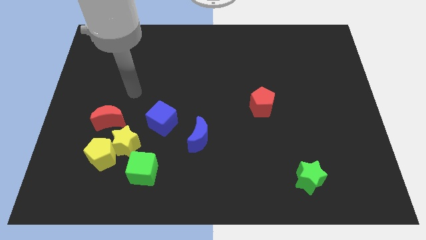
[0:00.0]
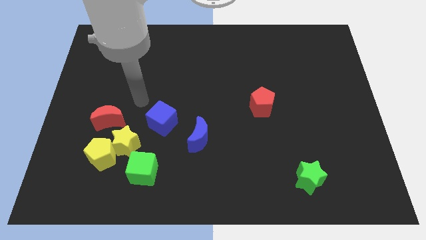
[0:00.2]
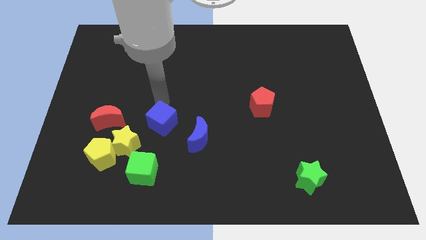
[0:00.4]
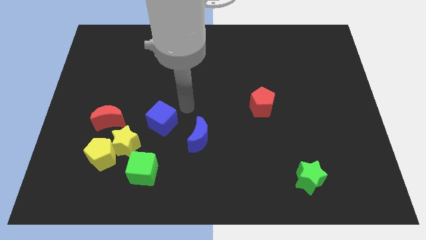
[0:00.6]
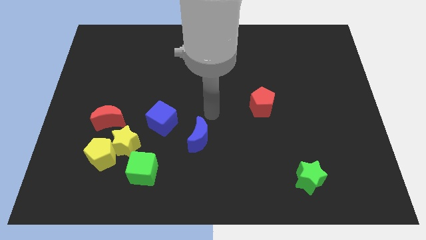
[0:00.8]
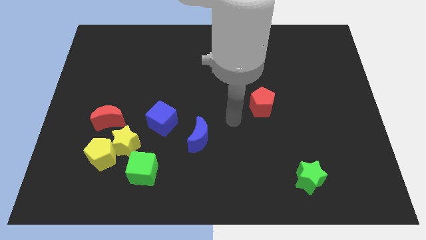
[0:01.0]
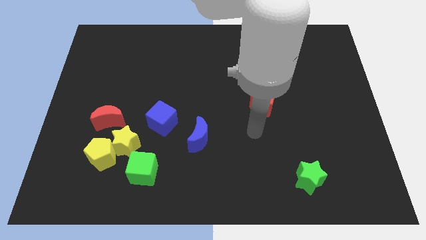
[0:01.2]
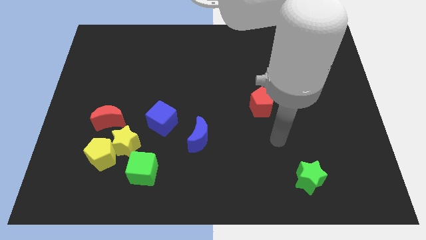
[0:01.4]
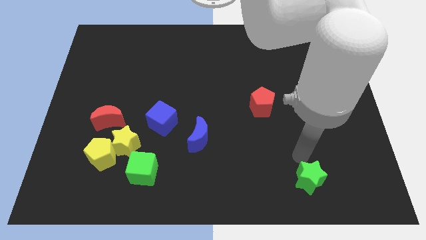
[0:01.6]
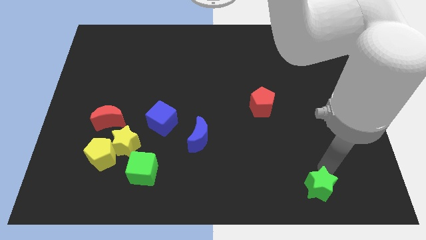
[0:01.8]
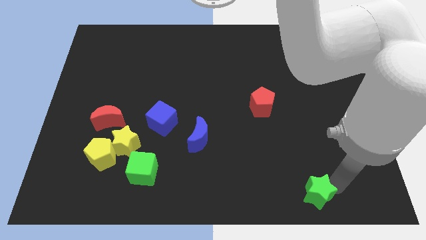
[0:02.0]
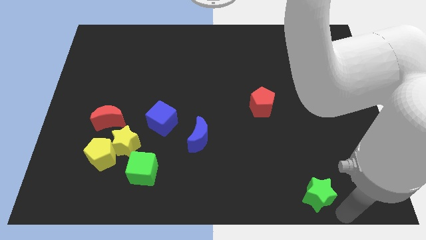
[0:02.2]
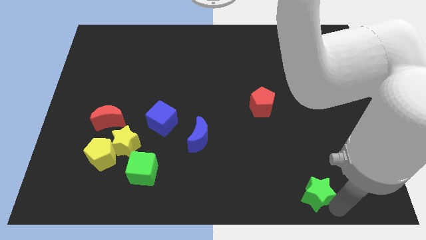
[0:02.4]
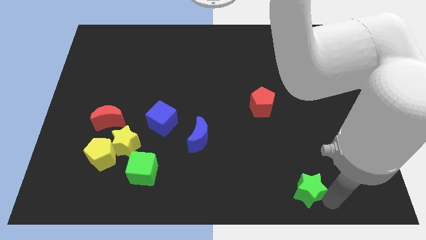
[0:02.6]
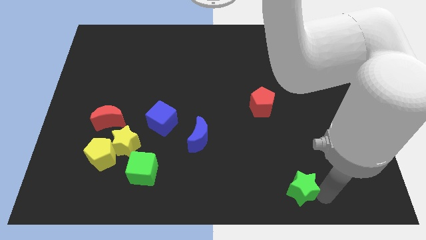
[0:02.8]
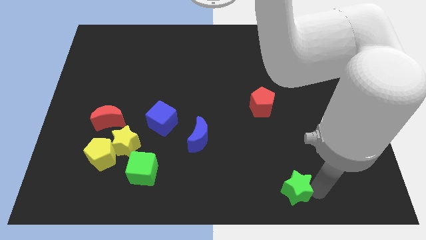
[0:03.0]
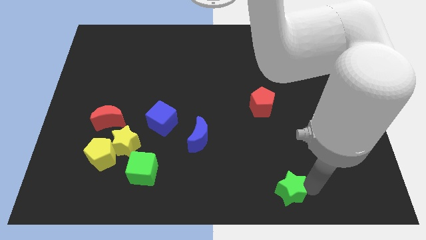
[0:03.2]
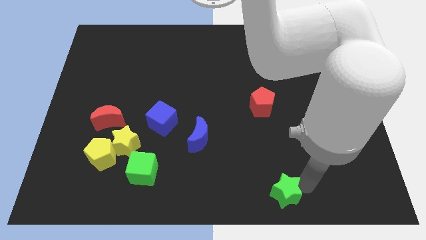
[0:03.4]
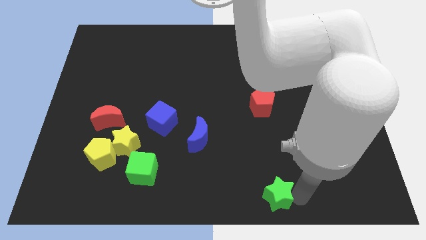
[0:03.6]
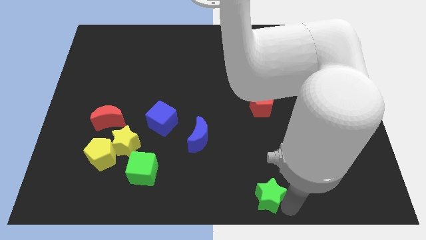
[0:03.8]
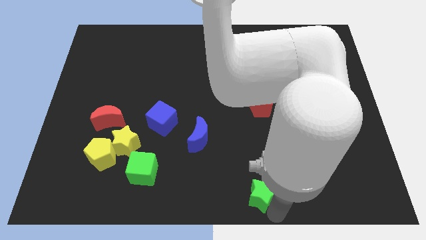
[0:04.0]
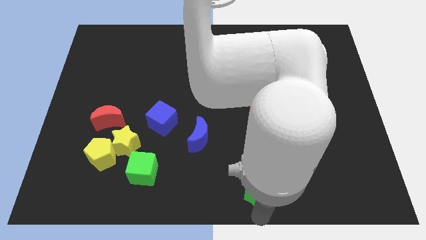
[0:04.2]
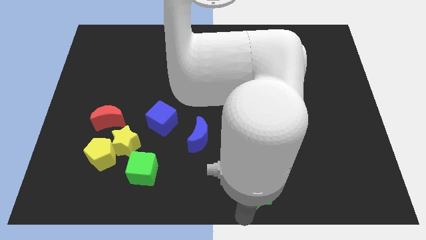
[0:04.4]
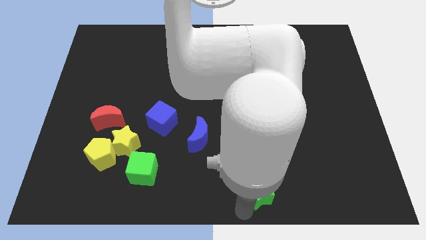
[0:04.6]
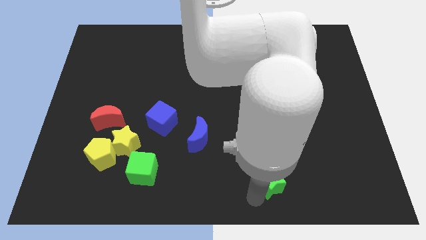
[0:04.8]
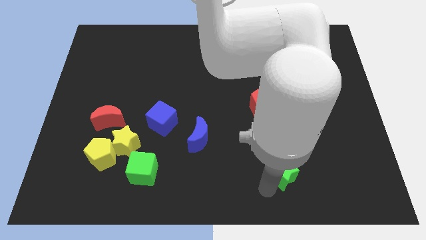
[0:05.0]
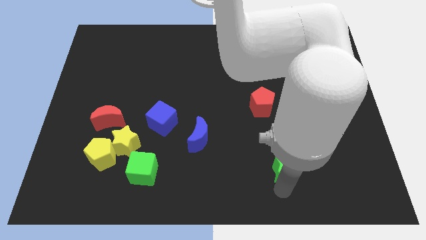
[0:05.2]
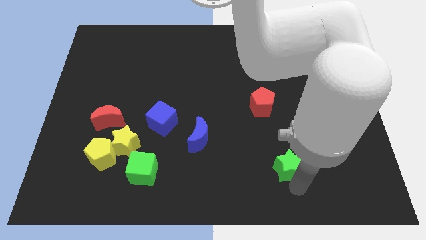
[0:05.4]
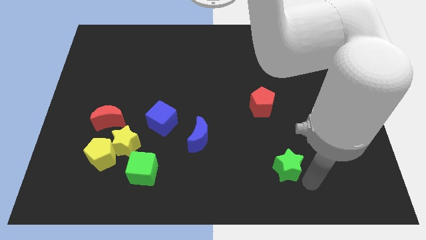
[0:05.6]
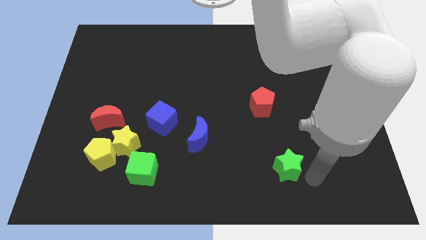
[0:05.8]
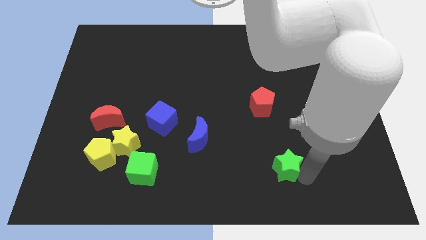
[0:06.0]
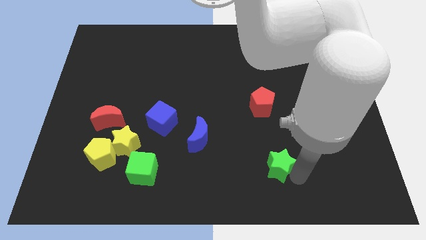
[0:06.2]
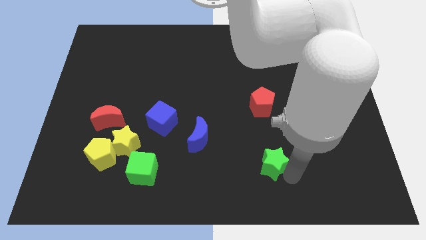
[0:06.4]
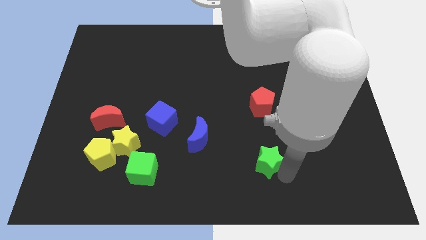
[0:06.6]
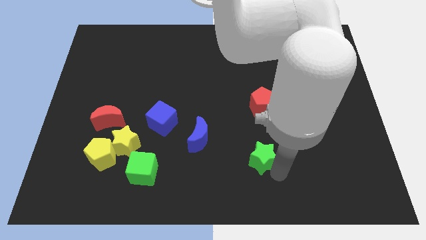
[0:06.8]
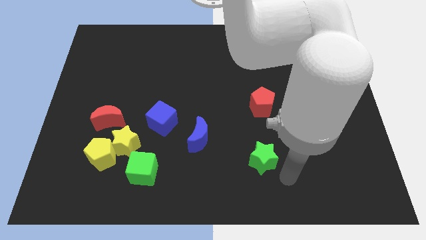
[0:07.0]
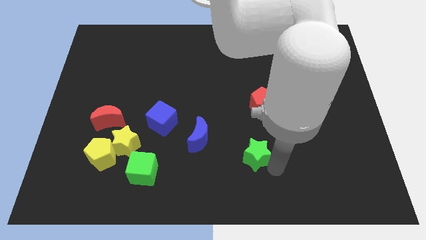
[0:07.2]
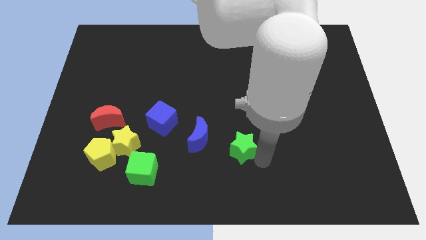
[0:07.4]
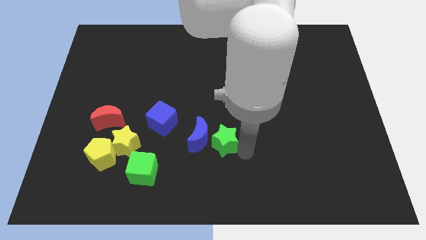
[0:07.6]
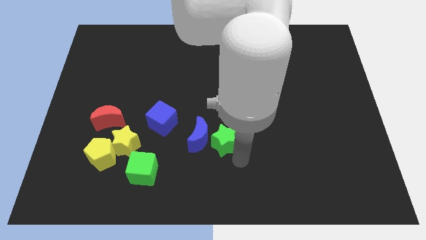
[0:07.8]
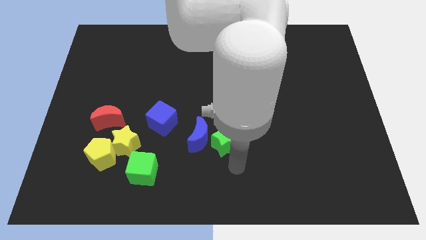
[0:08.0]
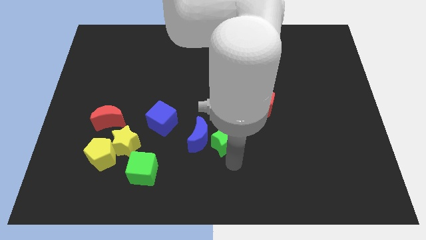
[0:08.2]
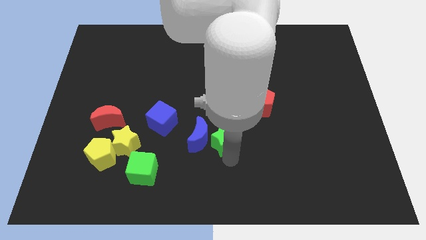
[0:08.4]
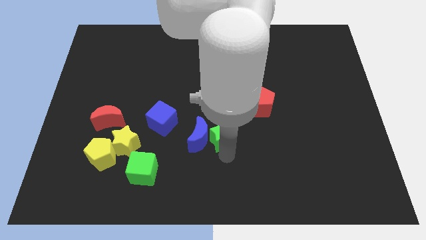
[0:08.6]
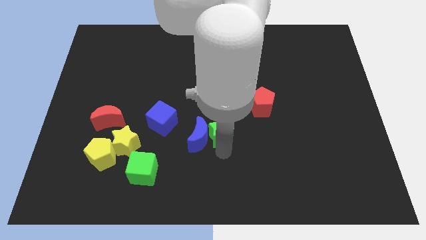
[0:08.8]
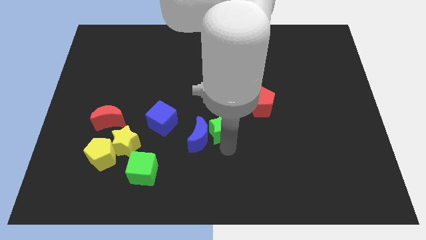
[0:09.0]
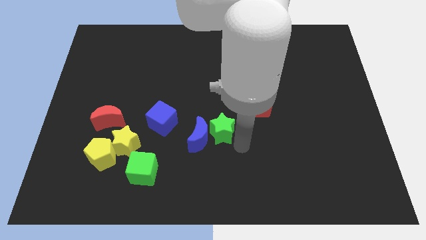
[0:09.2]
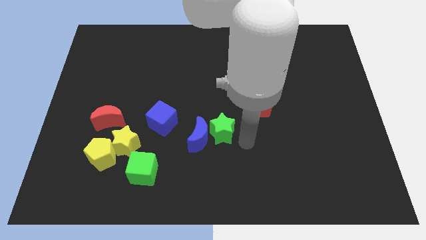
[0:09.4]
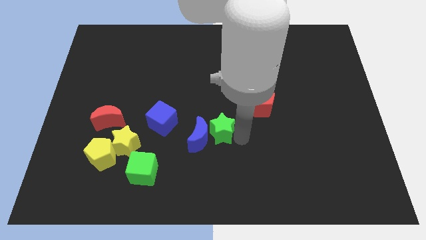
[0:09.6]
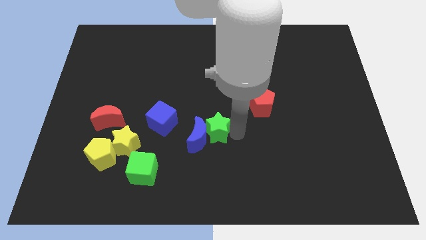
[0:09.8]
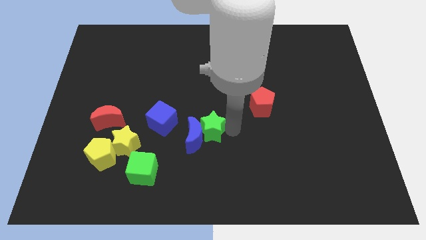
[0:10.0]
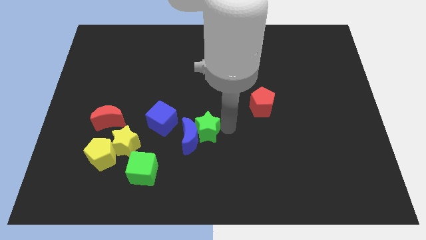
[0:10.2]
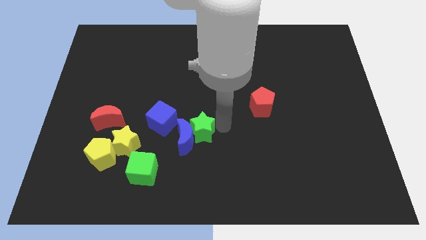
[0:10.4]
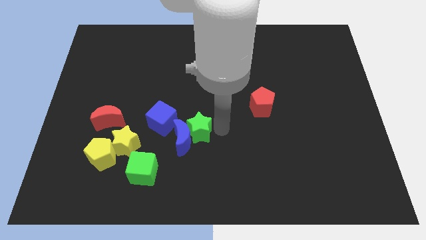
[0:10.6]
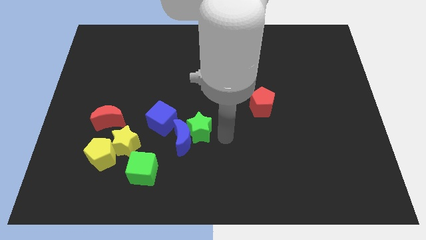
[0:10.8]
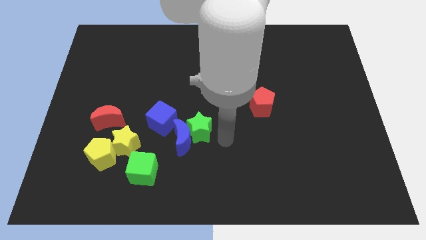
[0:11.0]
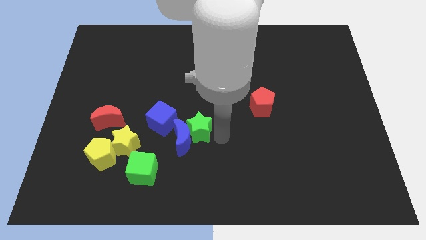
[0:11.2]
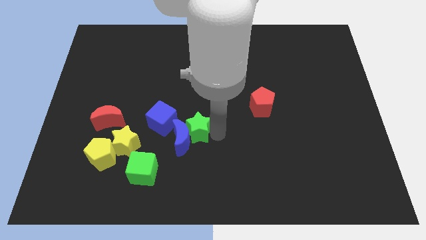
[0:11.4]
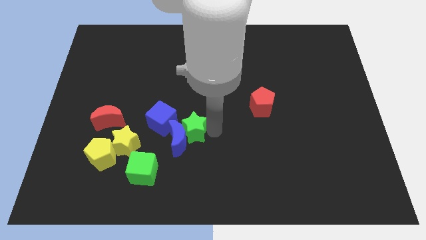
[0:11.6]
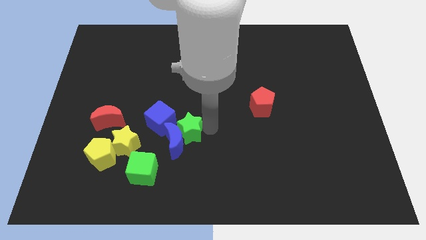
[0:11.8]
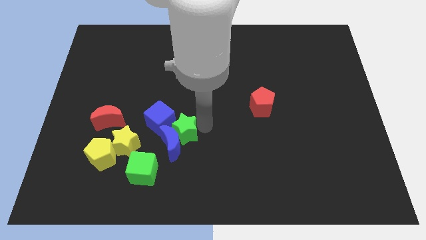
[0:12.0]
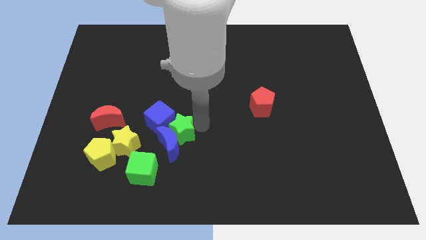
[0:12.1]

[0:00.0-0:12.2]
move the green star towards the blue cube

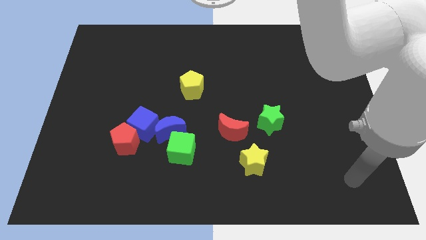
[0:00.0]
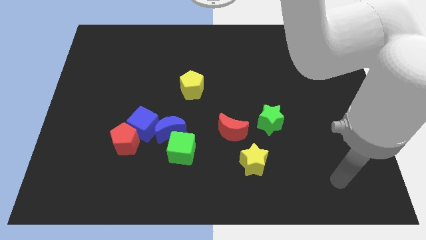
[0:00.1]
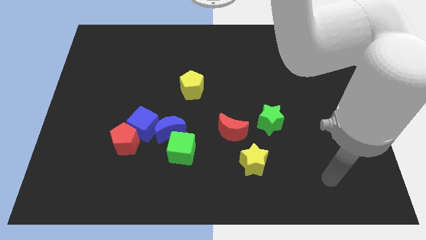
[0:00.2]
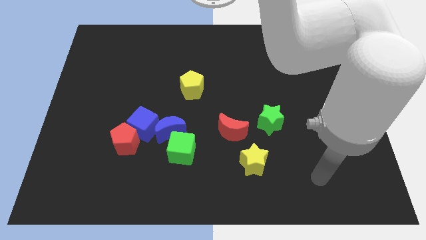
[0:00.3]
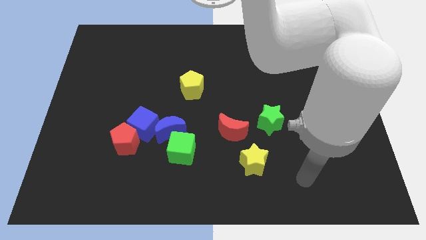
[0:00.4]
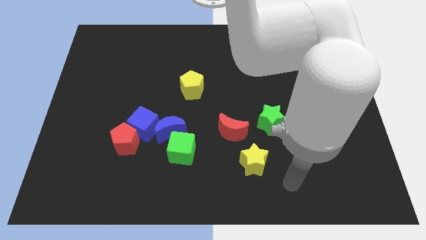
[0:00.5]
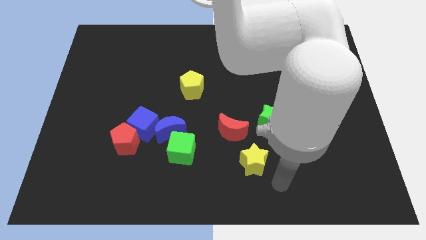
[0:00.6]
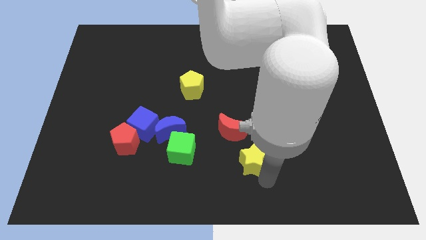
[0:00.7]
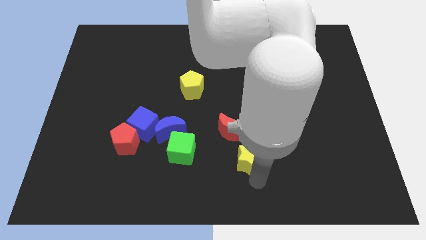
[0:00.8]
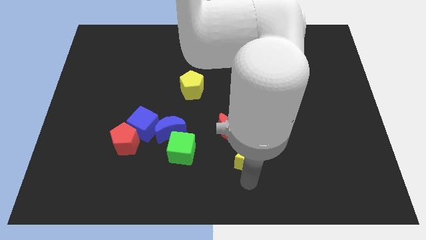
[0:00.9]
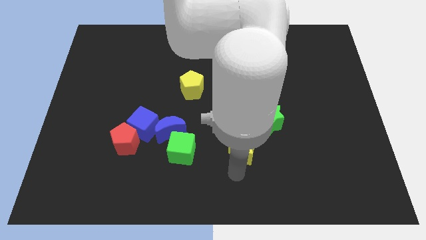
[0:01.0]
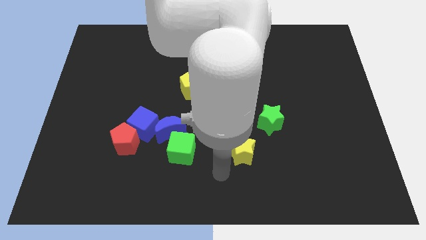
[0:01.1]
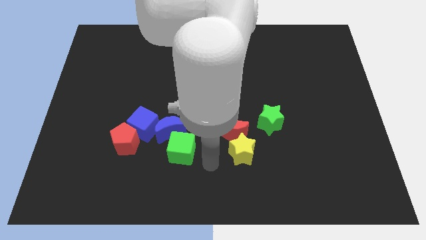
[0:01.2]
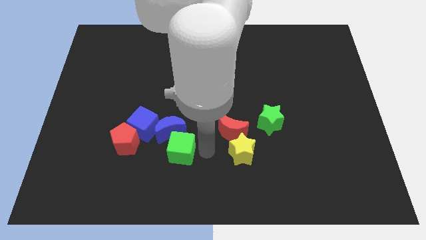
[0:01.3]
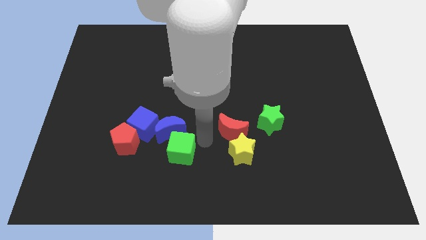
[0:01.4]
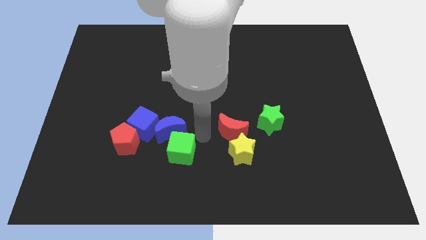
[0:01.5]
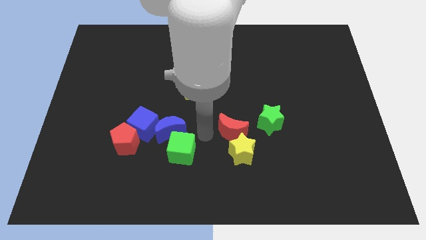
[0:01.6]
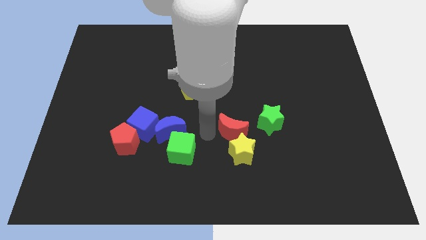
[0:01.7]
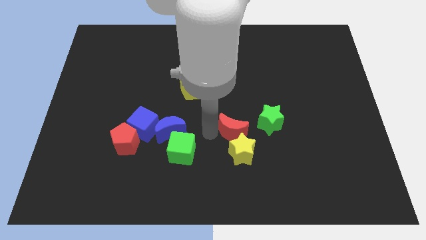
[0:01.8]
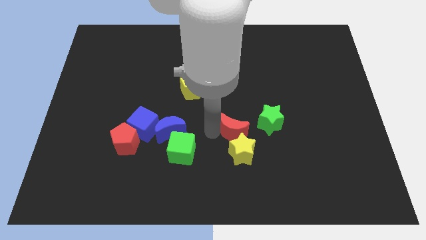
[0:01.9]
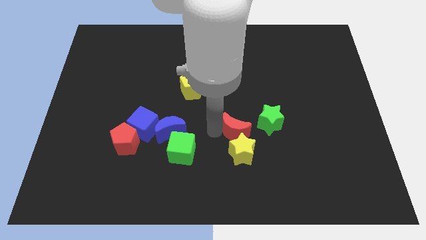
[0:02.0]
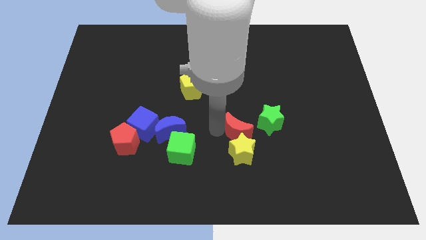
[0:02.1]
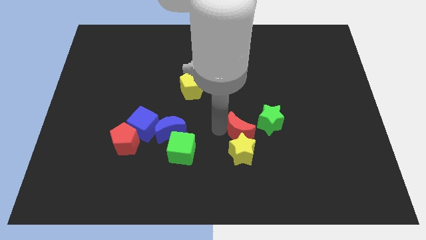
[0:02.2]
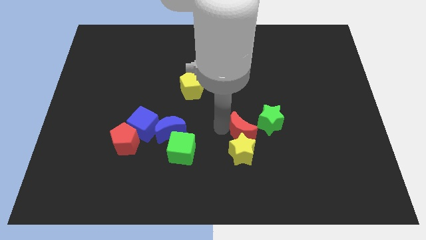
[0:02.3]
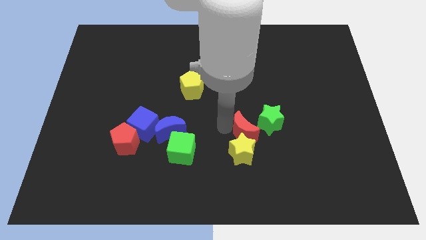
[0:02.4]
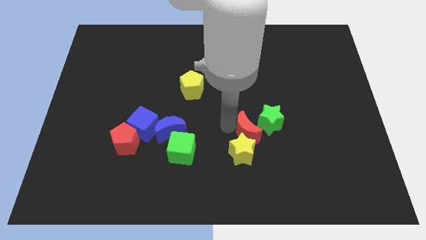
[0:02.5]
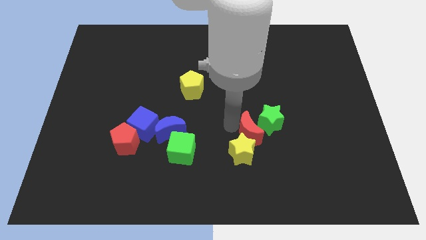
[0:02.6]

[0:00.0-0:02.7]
slide the red moon close to the green star
